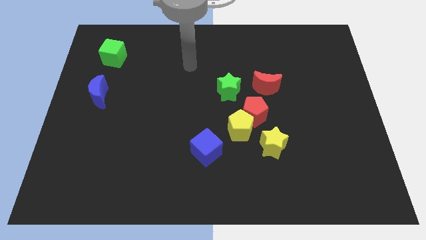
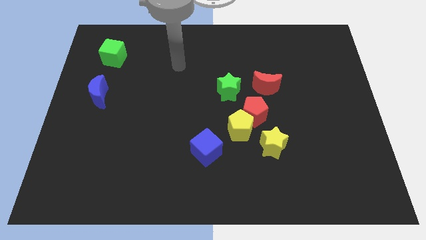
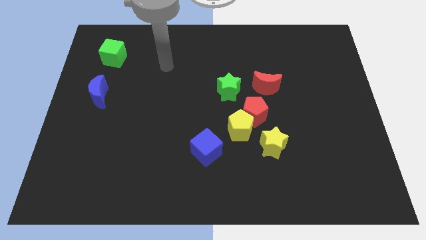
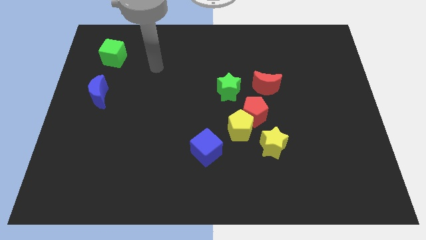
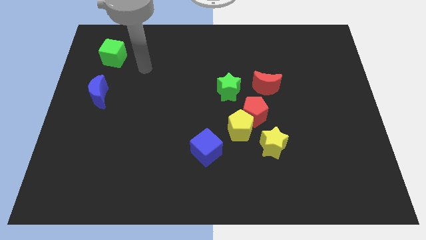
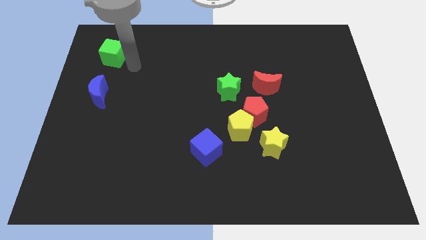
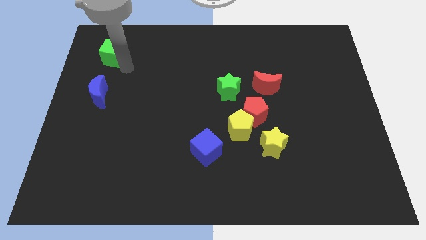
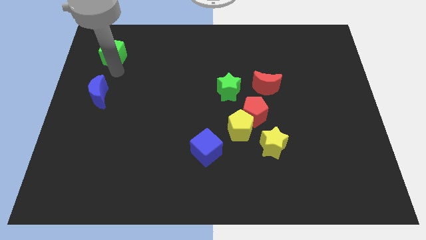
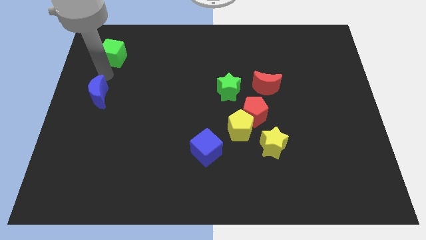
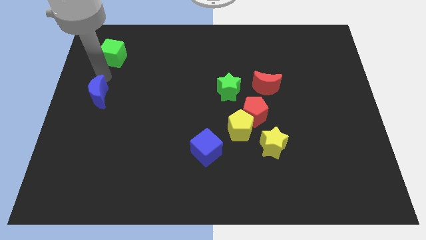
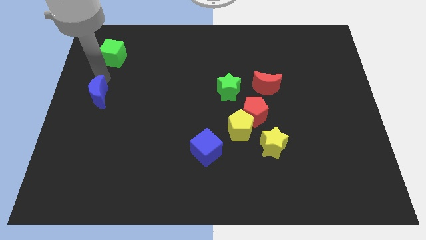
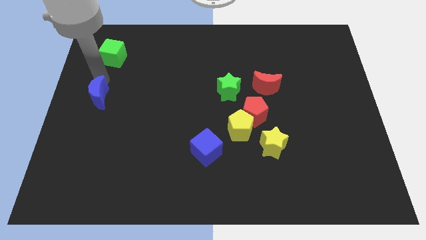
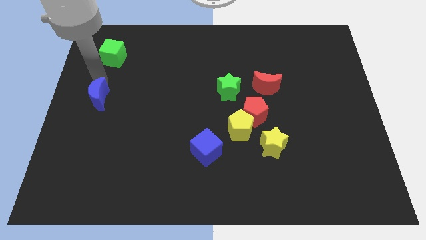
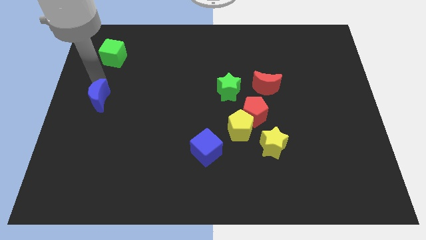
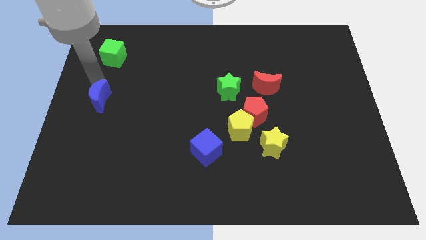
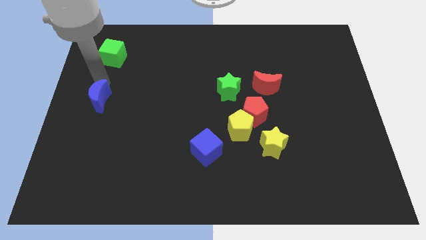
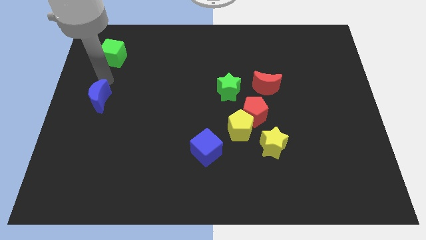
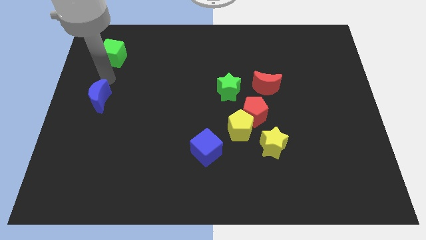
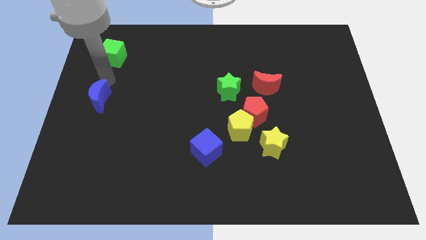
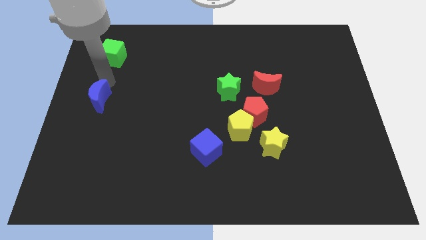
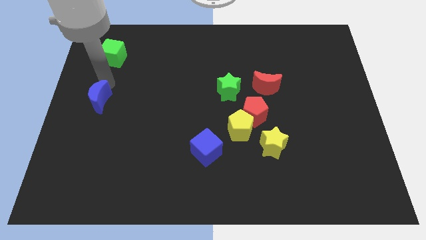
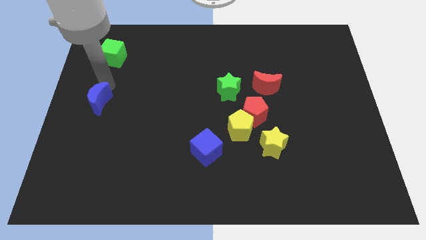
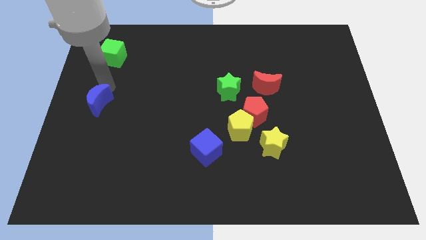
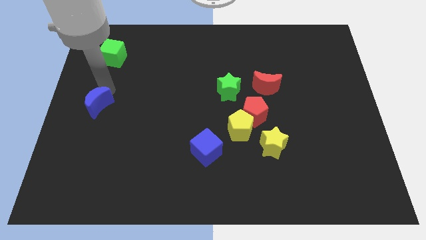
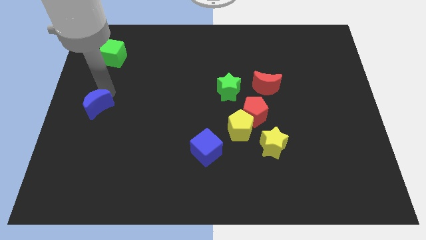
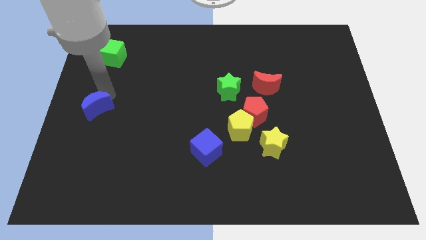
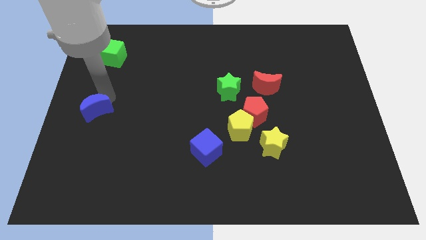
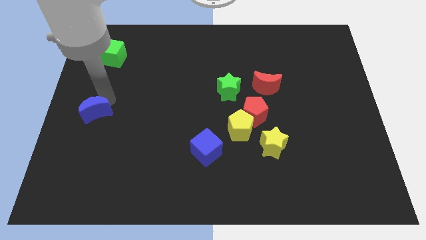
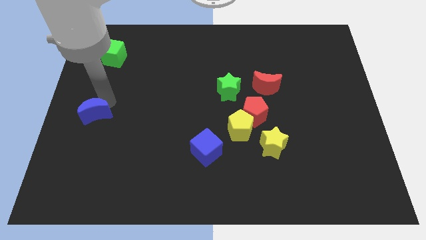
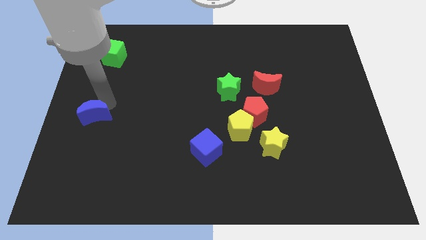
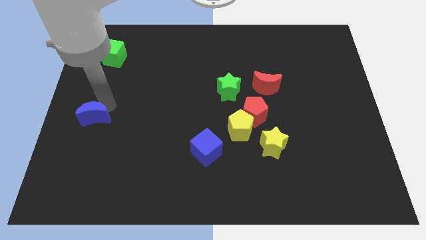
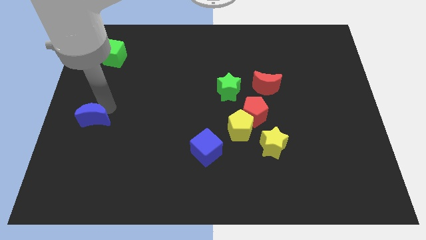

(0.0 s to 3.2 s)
slide the blue moon a bit downwards

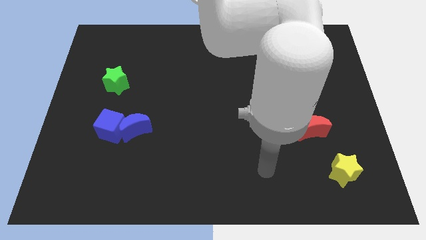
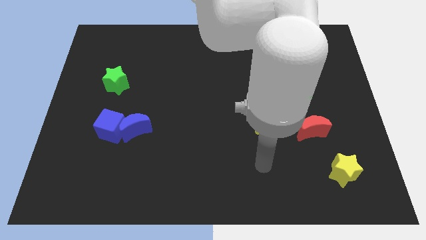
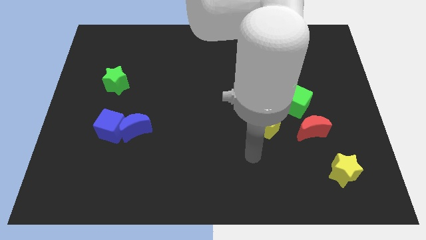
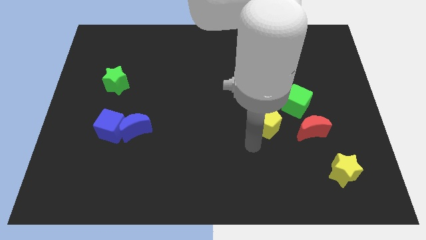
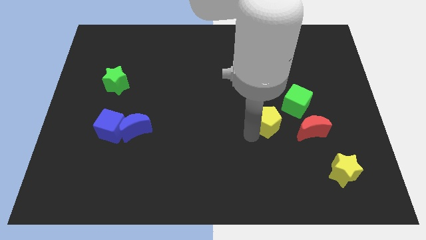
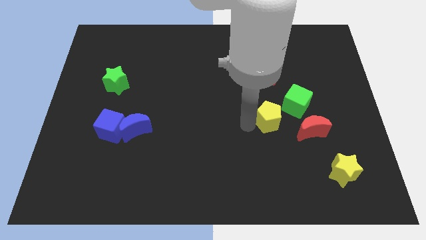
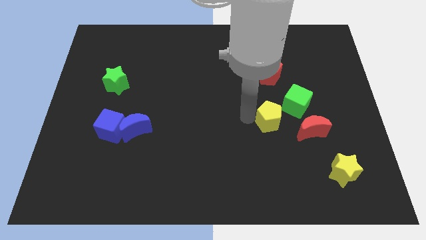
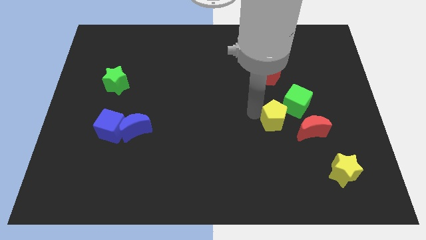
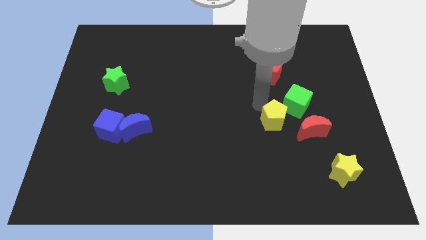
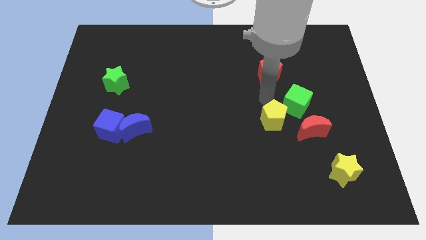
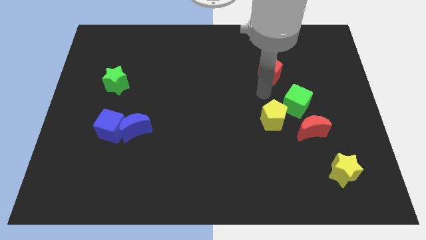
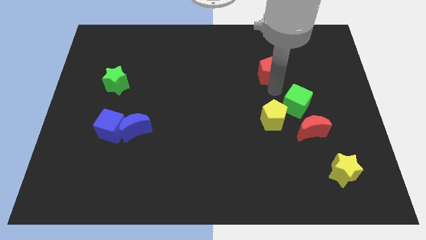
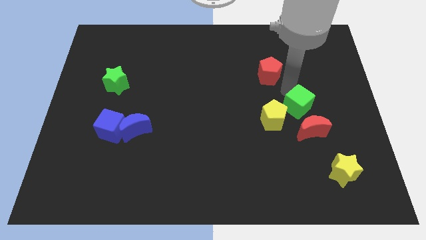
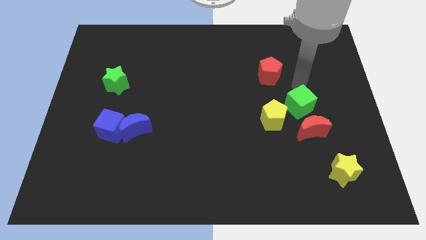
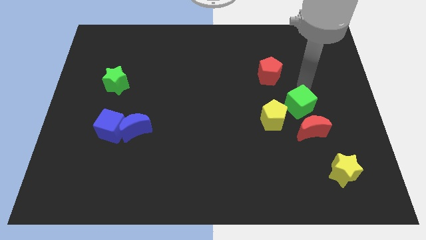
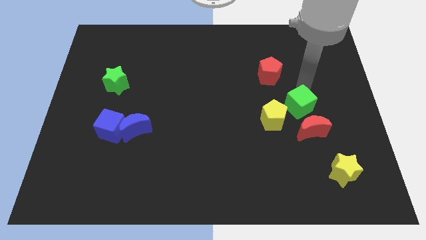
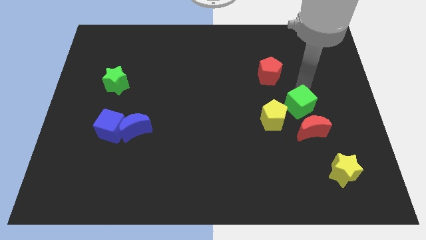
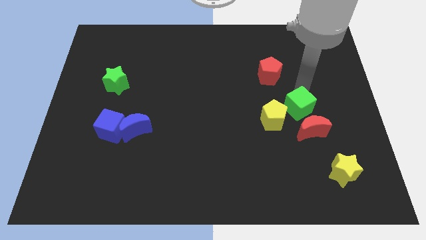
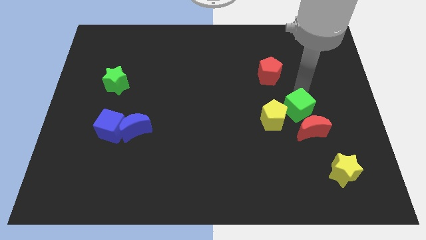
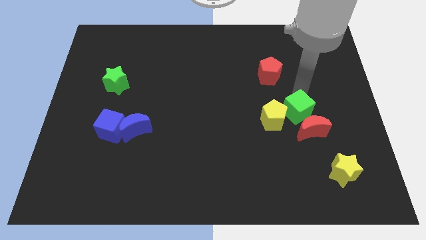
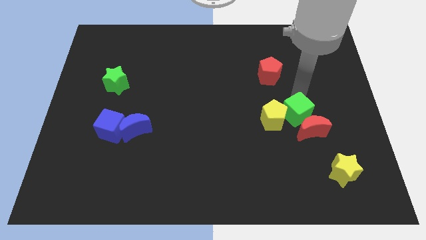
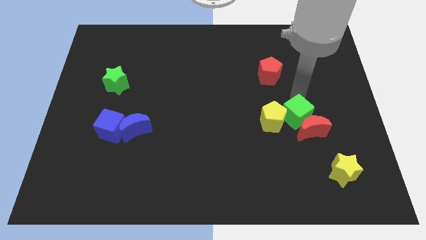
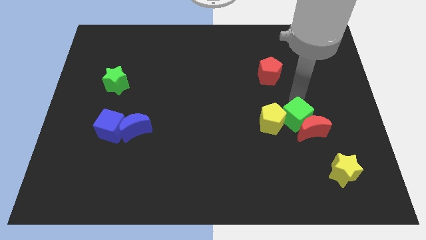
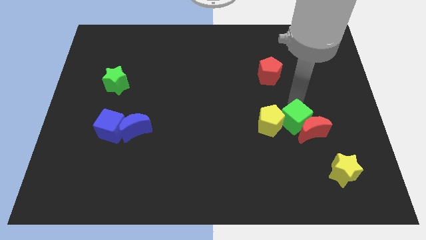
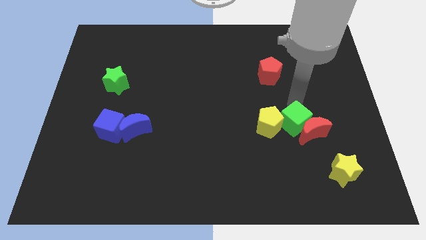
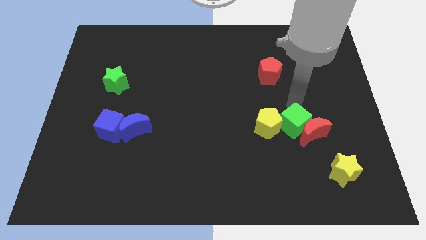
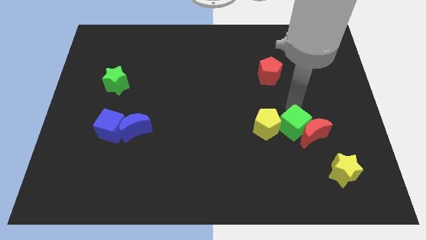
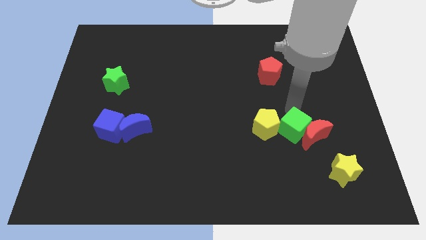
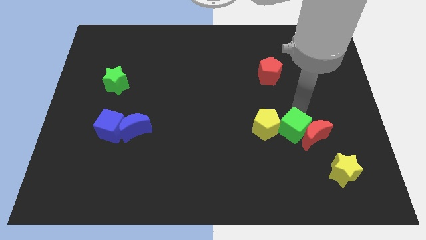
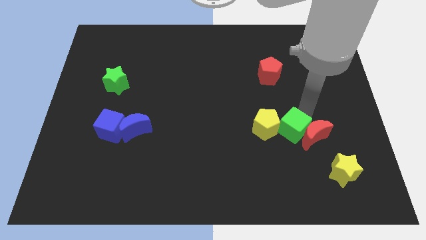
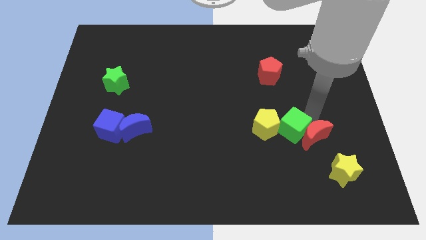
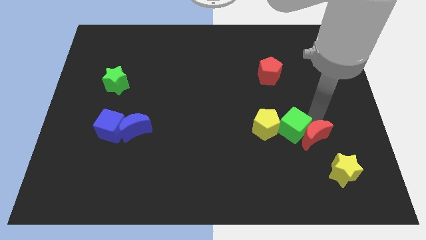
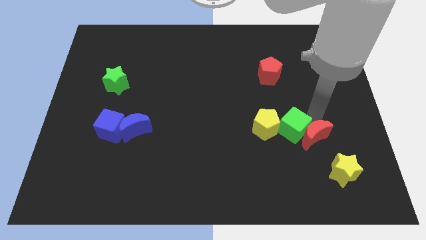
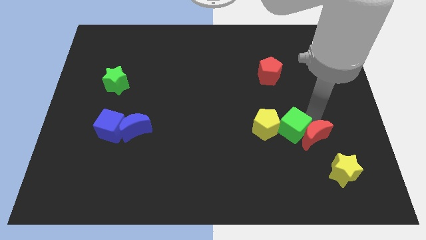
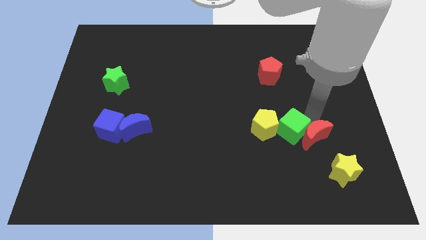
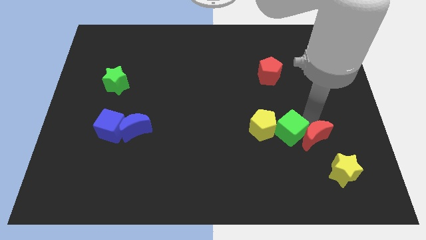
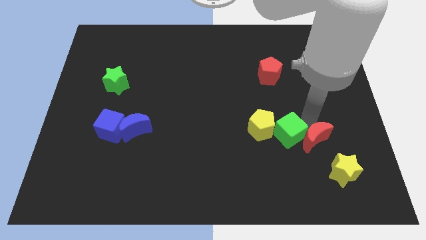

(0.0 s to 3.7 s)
slide the green cube down and then left a little bit

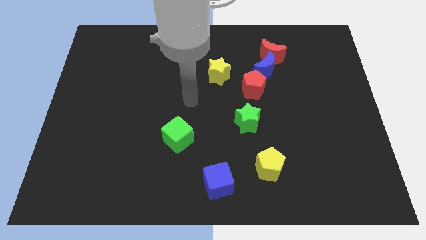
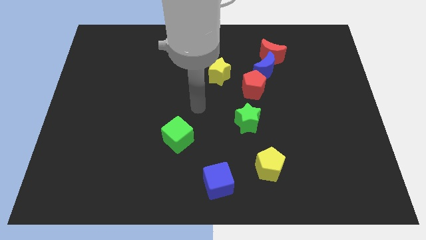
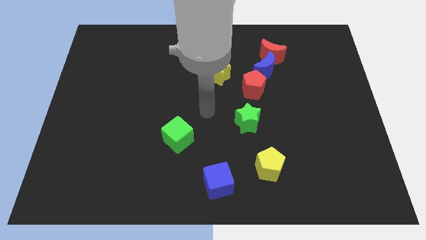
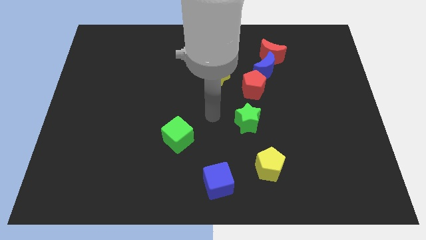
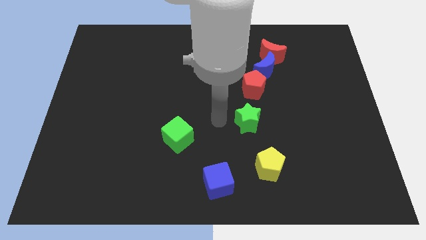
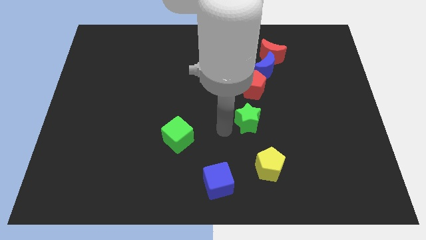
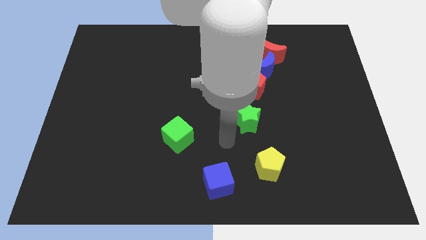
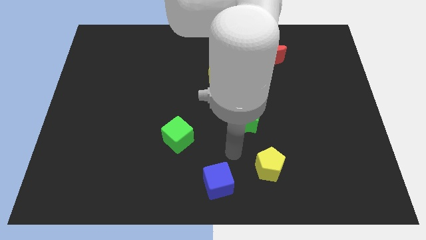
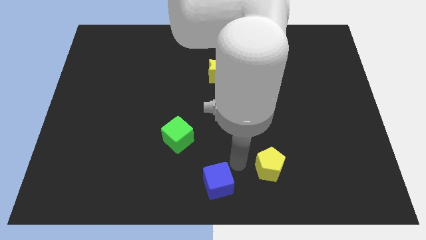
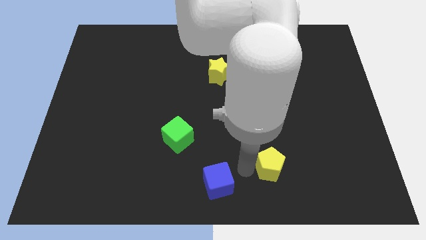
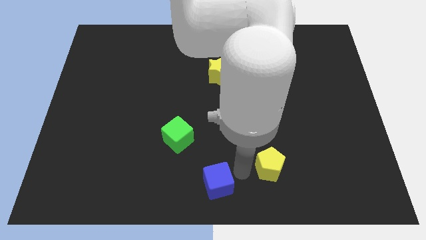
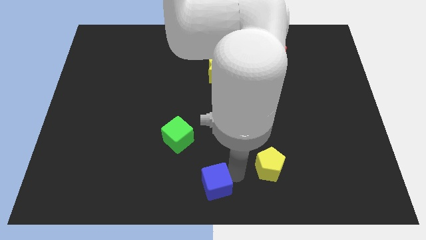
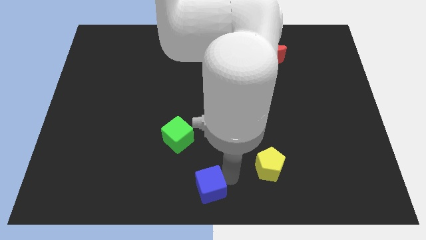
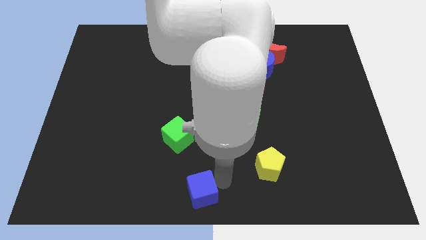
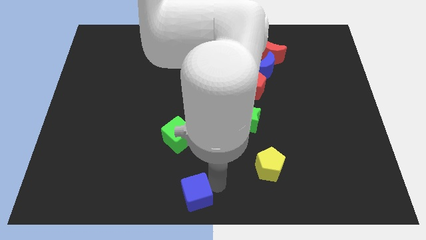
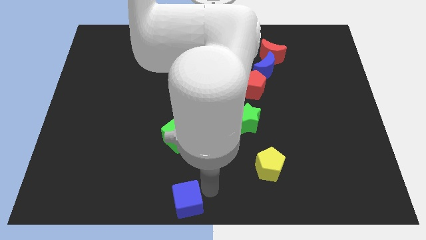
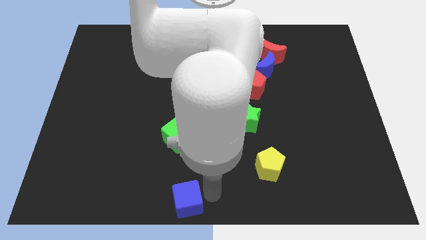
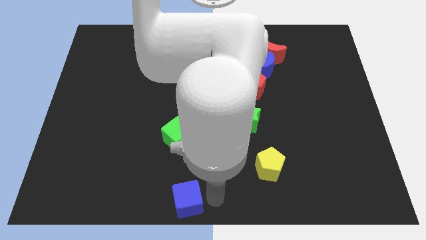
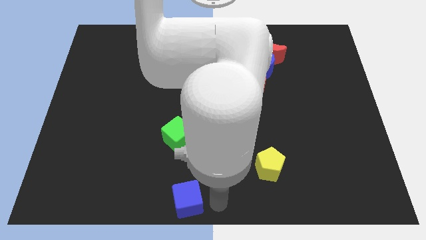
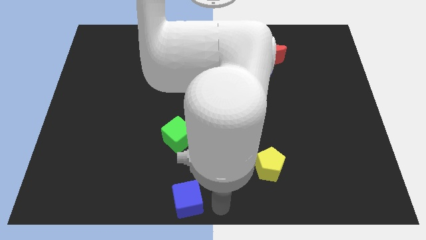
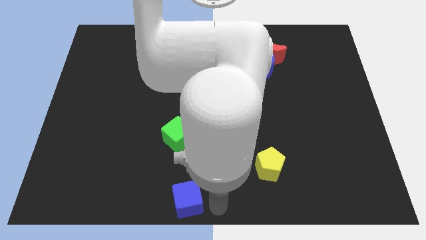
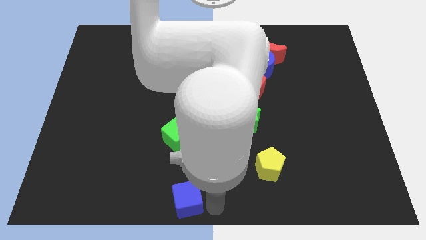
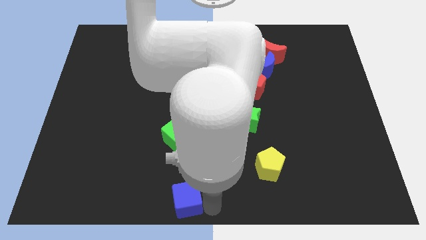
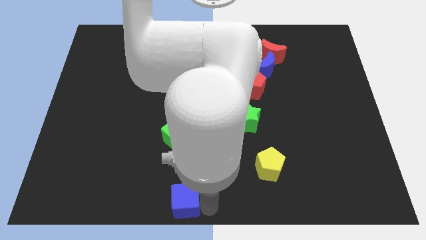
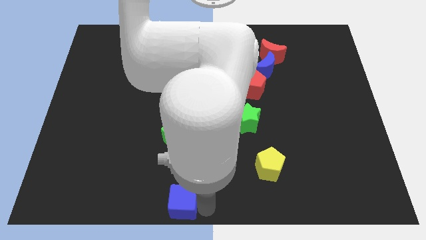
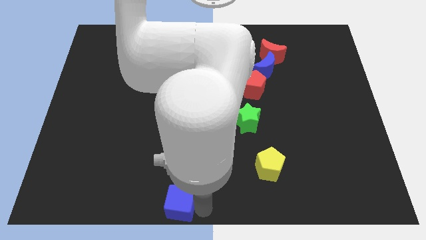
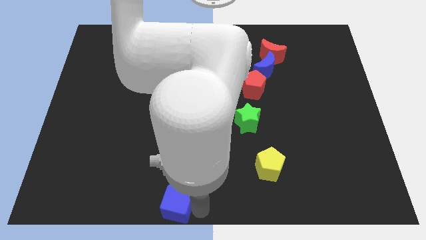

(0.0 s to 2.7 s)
slightly move the blue cube left
